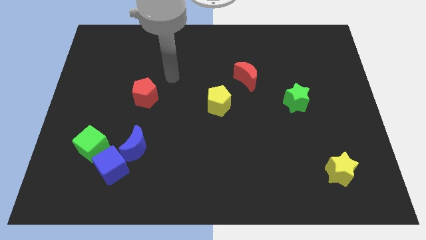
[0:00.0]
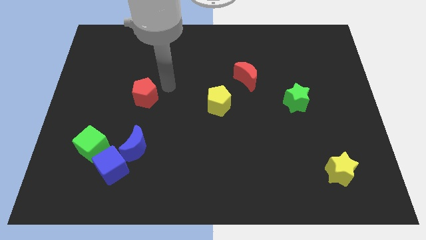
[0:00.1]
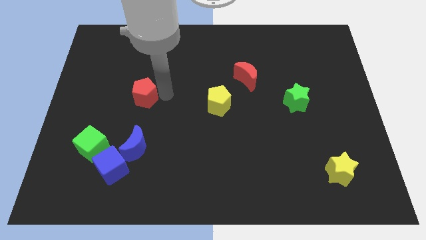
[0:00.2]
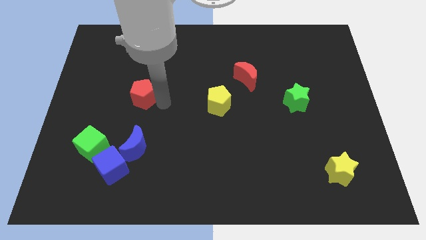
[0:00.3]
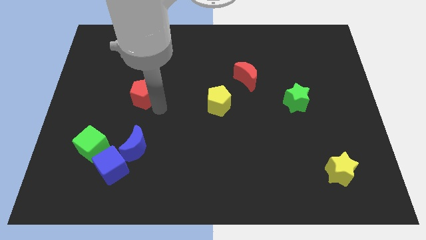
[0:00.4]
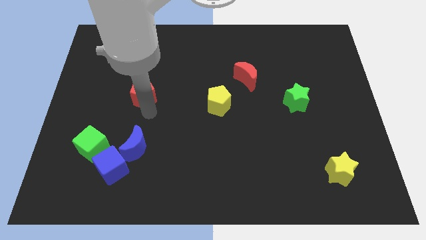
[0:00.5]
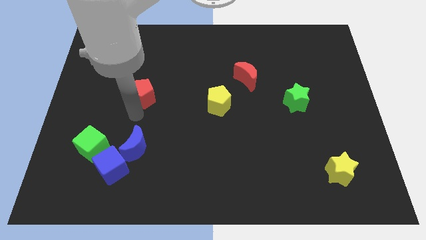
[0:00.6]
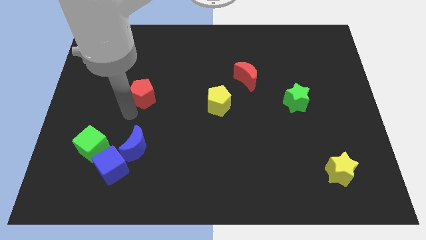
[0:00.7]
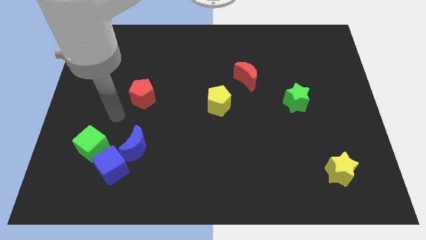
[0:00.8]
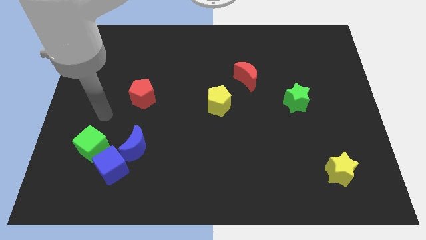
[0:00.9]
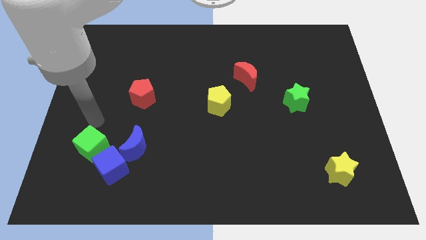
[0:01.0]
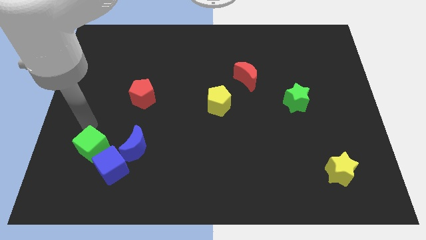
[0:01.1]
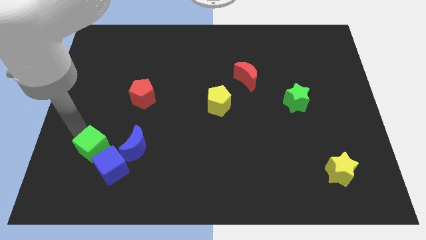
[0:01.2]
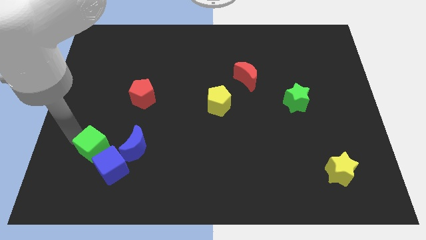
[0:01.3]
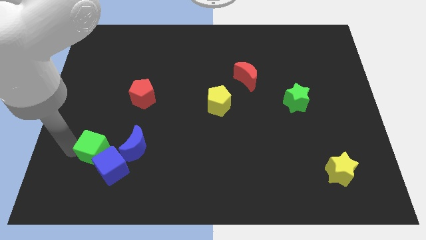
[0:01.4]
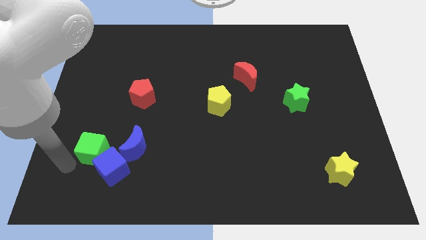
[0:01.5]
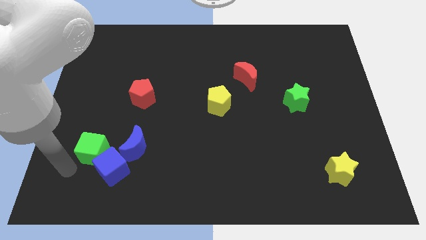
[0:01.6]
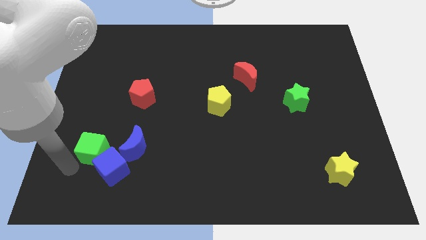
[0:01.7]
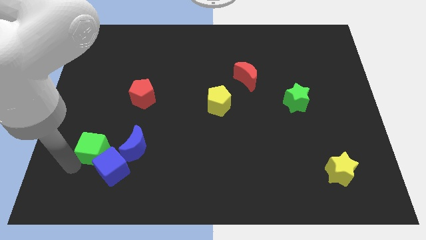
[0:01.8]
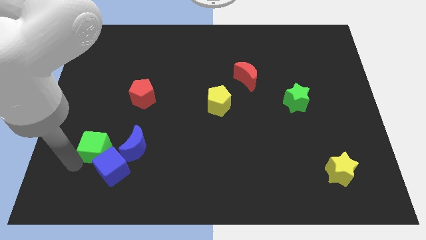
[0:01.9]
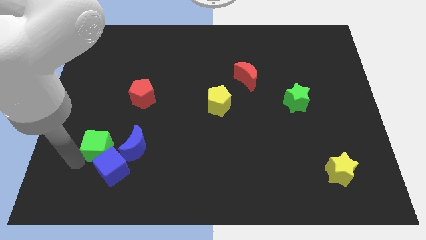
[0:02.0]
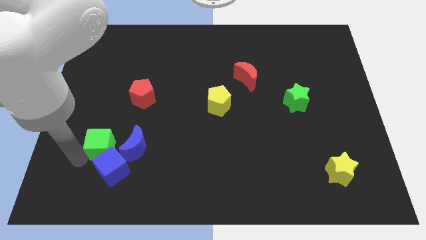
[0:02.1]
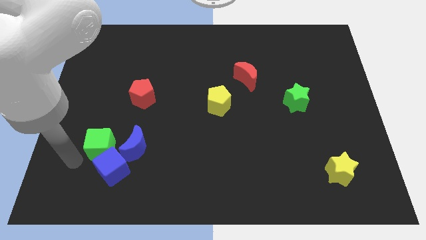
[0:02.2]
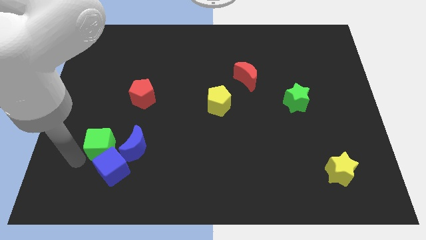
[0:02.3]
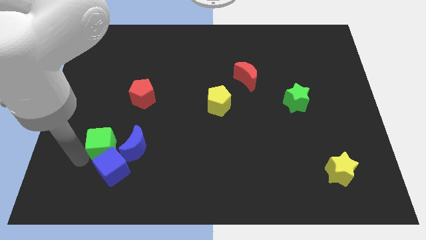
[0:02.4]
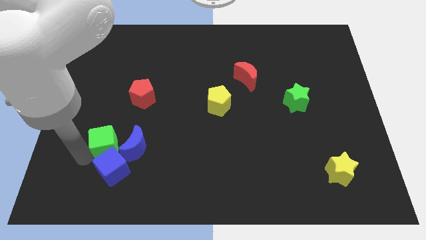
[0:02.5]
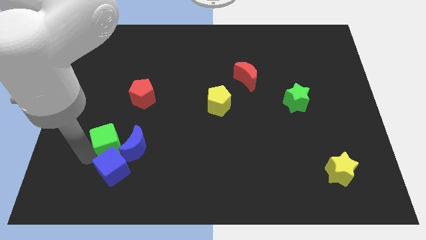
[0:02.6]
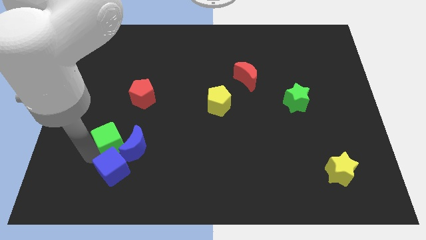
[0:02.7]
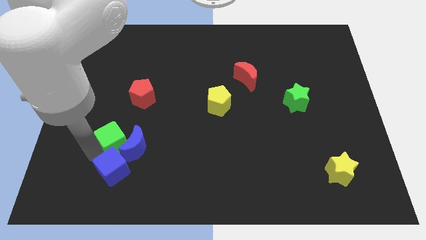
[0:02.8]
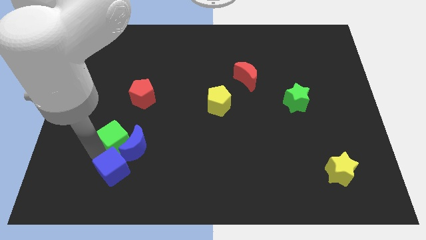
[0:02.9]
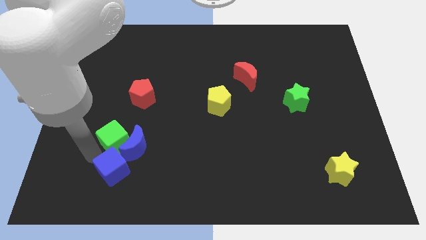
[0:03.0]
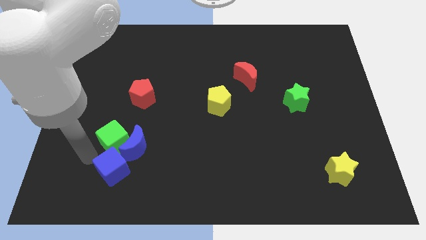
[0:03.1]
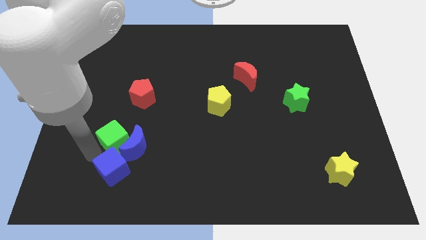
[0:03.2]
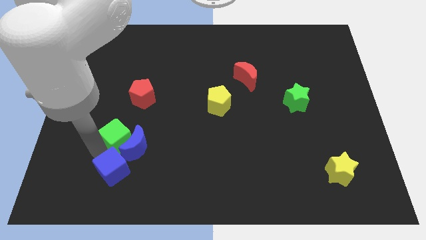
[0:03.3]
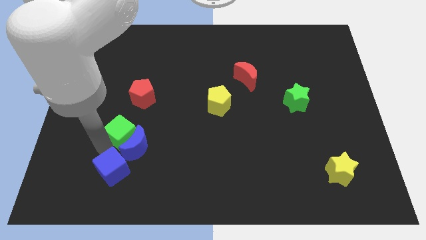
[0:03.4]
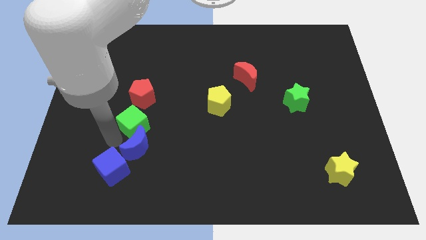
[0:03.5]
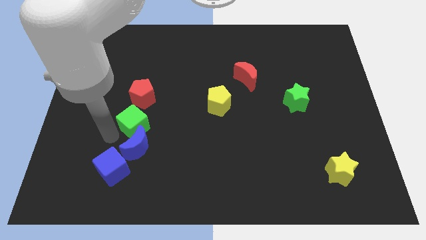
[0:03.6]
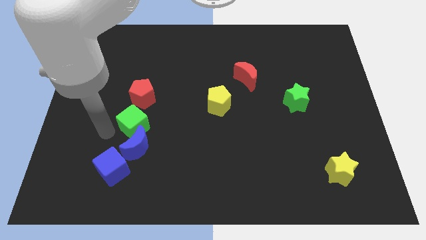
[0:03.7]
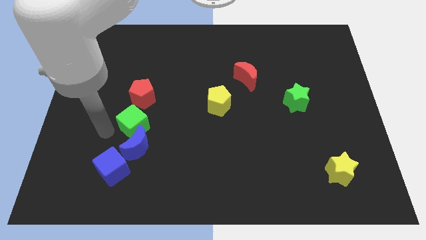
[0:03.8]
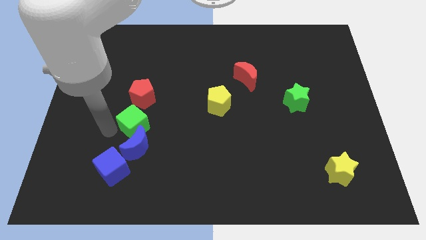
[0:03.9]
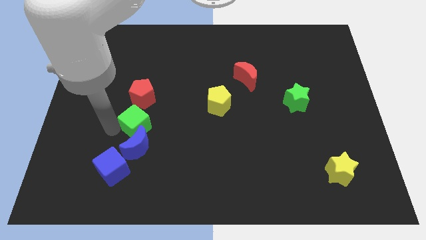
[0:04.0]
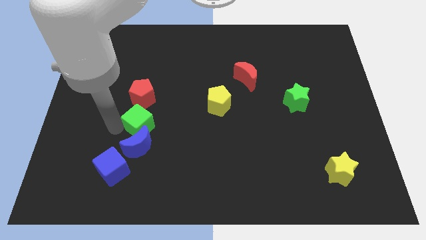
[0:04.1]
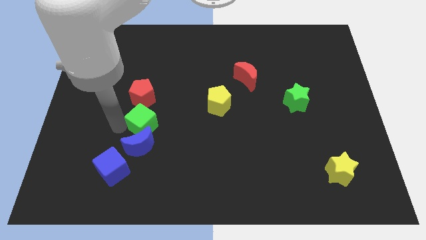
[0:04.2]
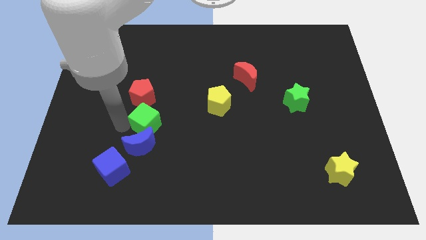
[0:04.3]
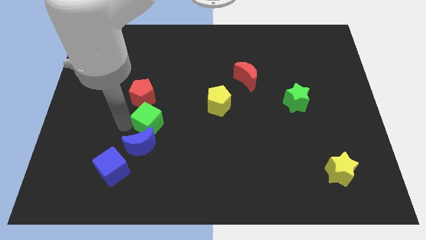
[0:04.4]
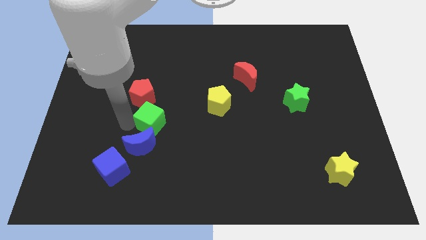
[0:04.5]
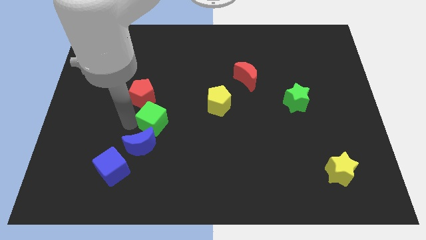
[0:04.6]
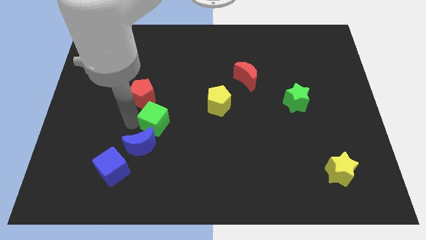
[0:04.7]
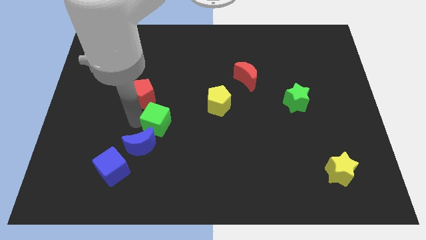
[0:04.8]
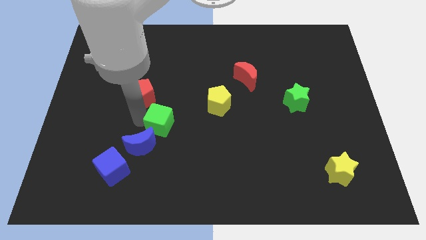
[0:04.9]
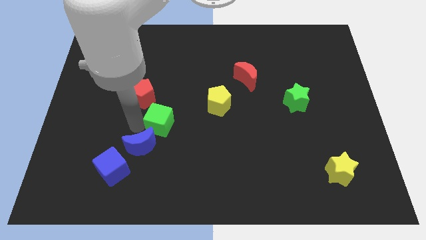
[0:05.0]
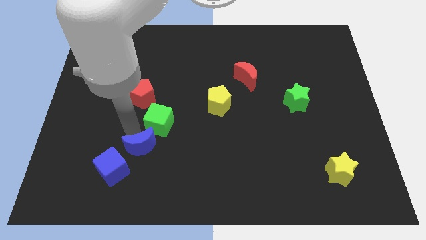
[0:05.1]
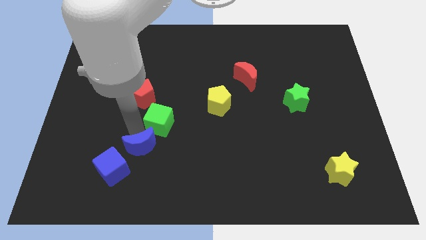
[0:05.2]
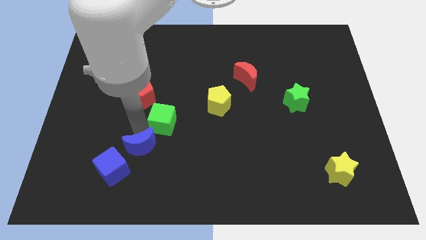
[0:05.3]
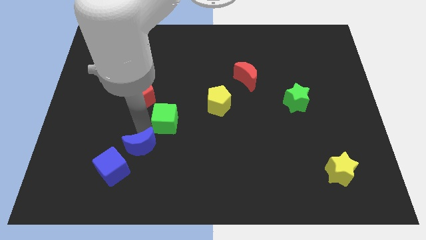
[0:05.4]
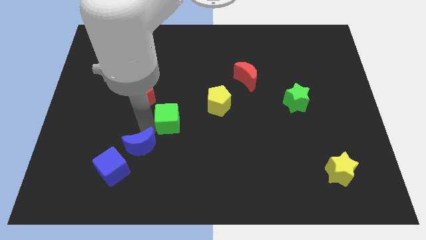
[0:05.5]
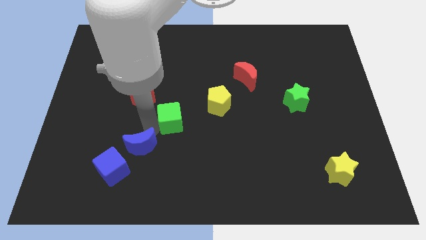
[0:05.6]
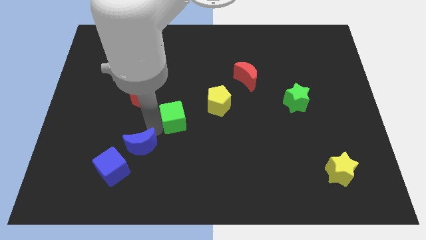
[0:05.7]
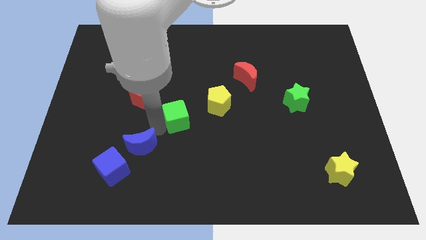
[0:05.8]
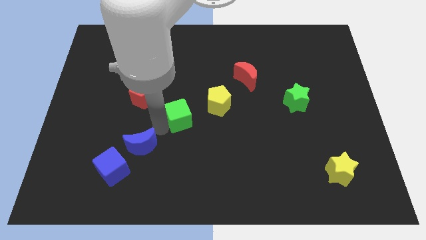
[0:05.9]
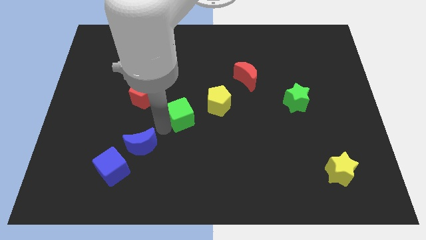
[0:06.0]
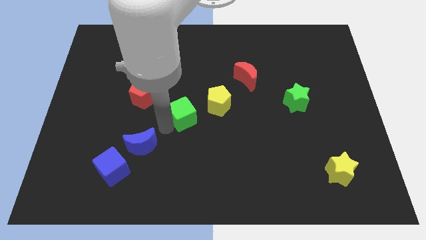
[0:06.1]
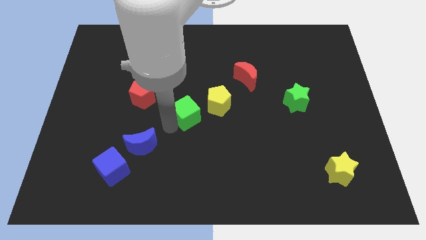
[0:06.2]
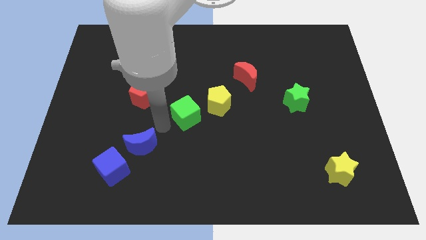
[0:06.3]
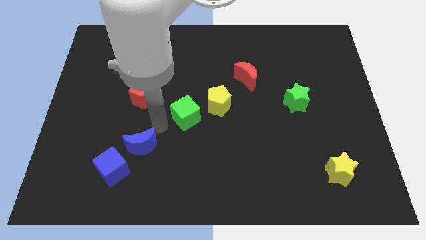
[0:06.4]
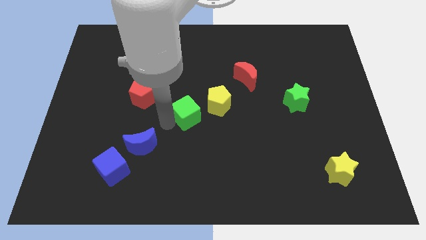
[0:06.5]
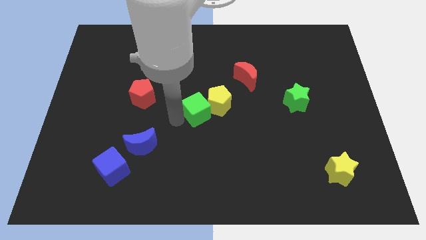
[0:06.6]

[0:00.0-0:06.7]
put the green cube towards the yellow pentagon
